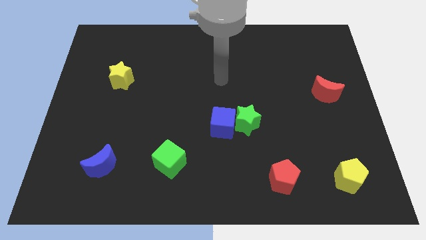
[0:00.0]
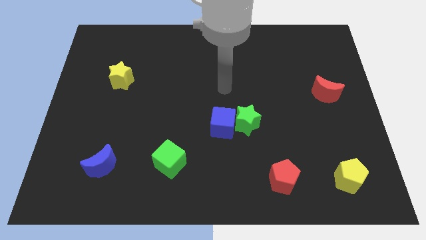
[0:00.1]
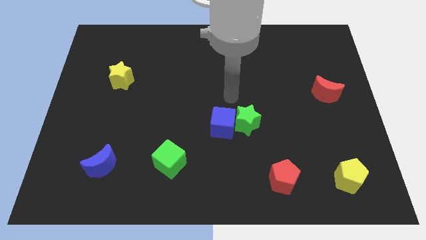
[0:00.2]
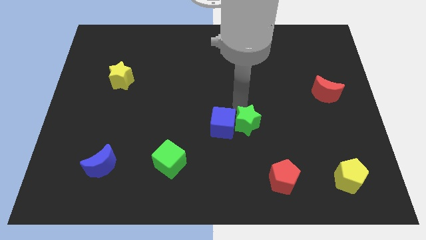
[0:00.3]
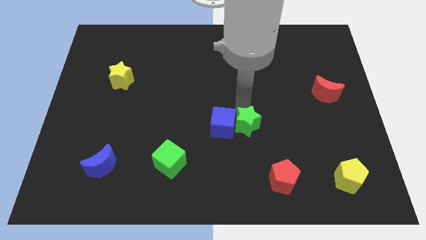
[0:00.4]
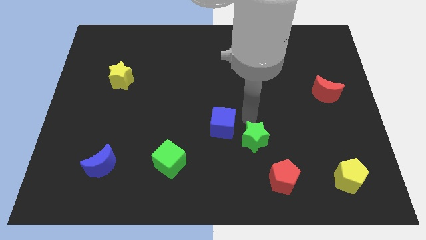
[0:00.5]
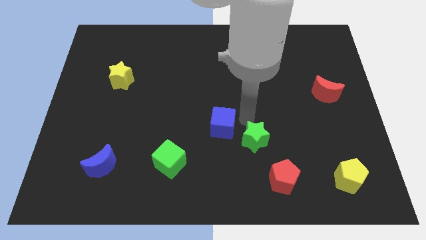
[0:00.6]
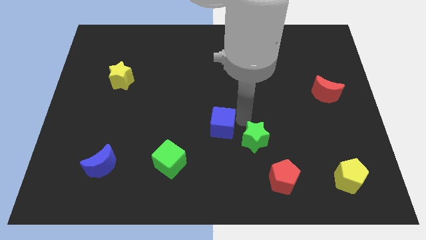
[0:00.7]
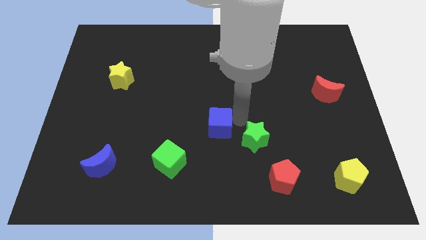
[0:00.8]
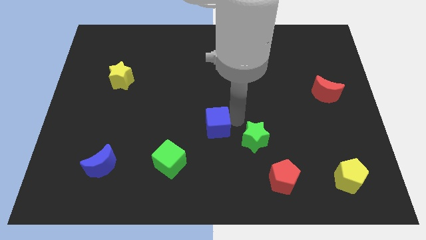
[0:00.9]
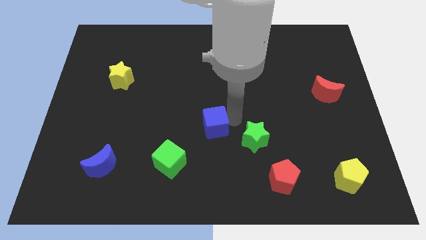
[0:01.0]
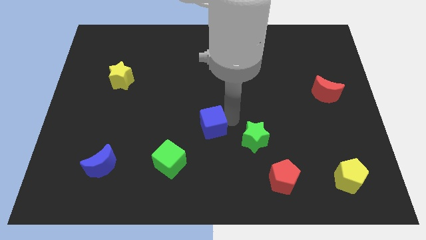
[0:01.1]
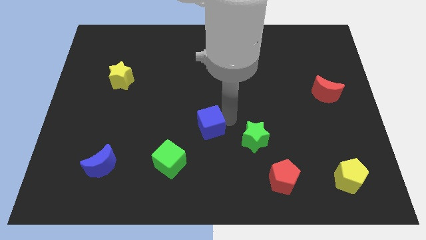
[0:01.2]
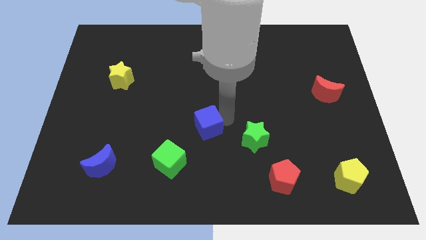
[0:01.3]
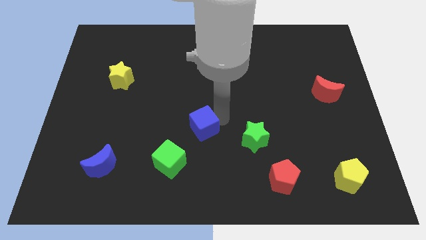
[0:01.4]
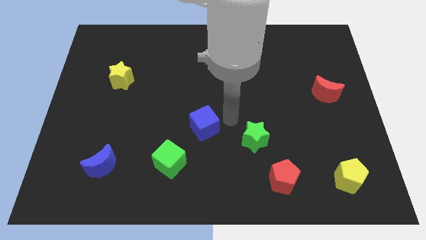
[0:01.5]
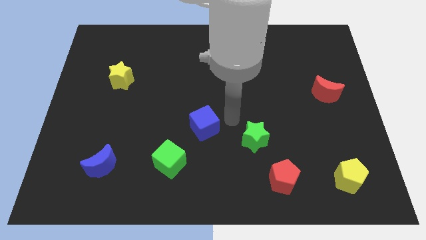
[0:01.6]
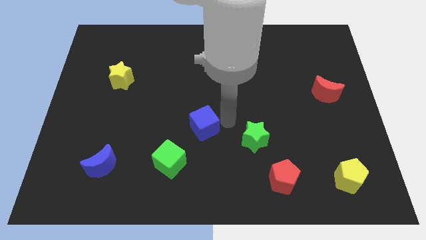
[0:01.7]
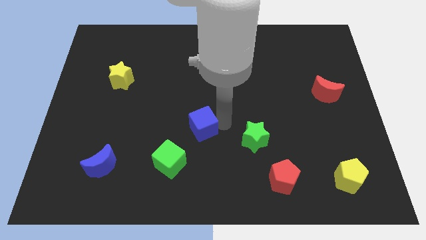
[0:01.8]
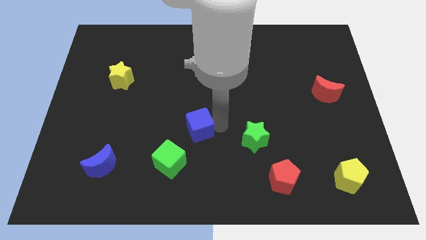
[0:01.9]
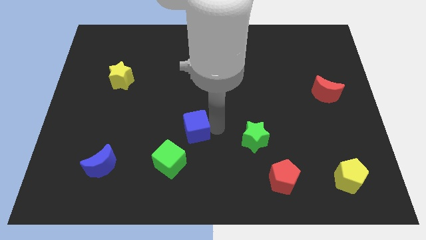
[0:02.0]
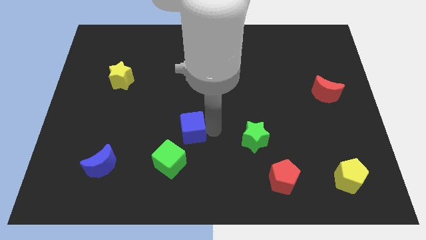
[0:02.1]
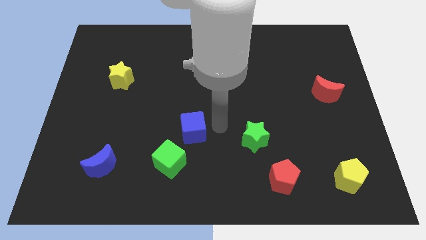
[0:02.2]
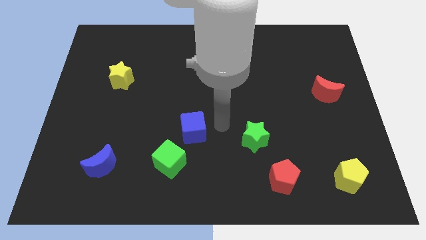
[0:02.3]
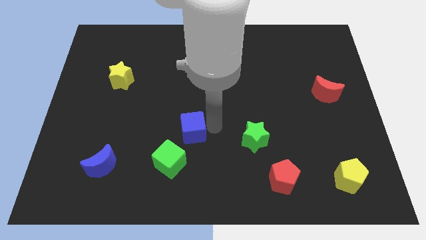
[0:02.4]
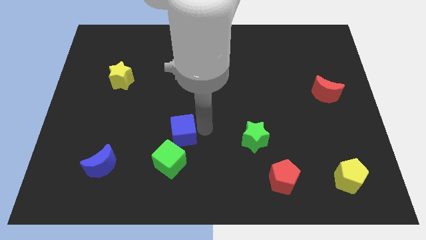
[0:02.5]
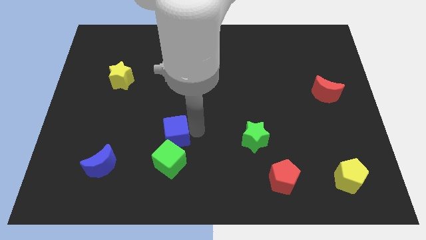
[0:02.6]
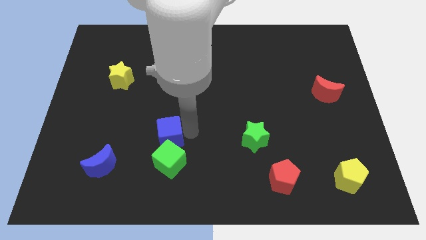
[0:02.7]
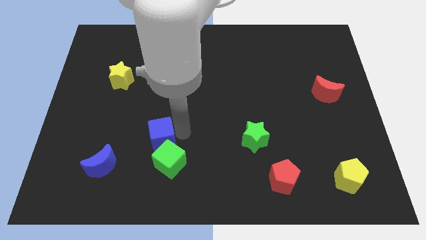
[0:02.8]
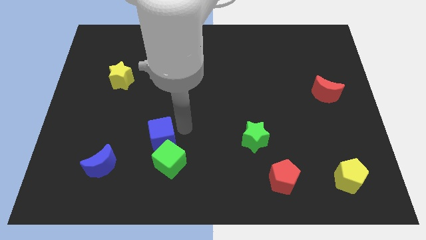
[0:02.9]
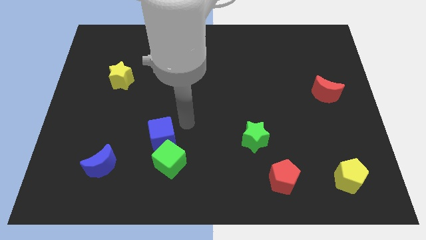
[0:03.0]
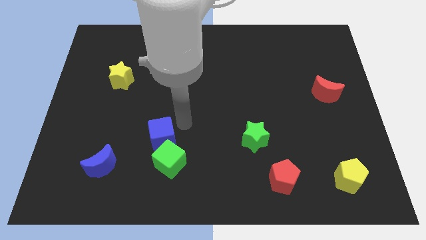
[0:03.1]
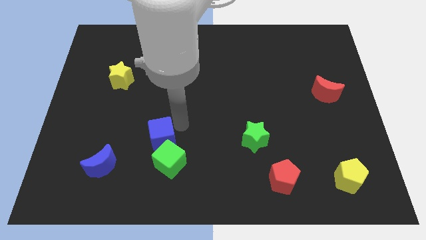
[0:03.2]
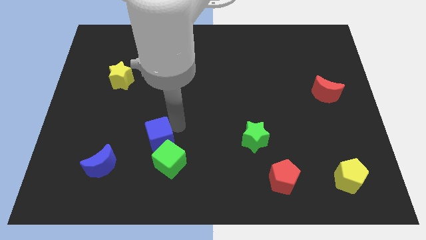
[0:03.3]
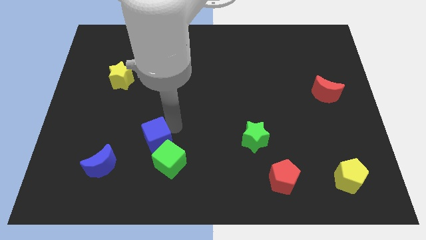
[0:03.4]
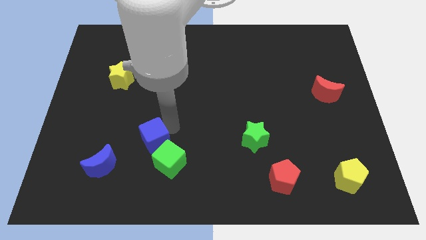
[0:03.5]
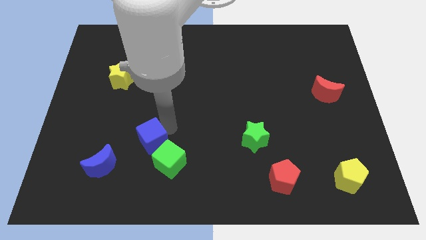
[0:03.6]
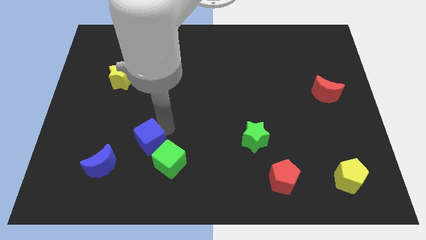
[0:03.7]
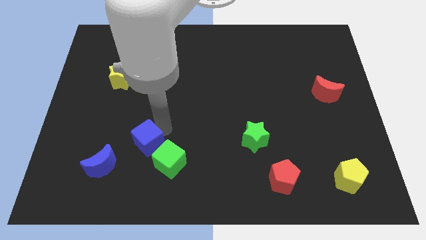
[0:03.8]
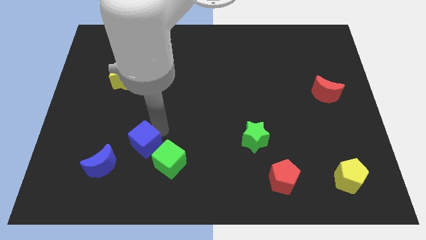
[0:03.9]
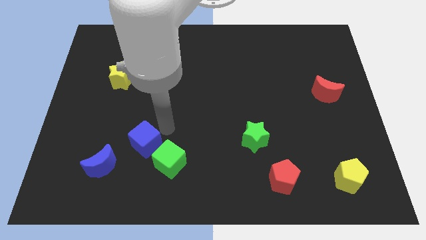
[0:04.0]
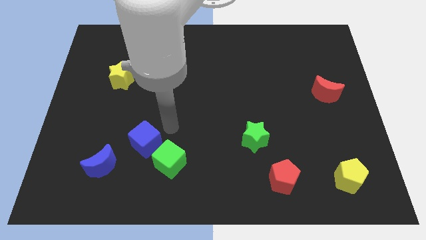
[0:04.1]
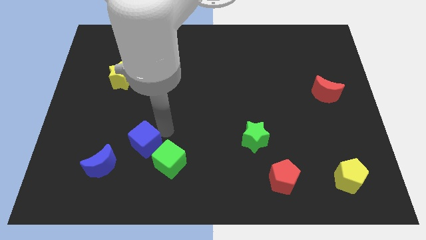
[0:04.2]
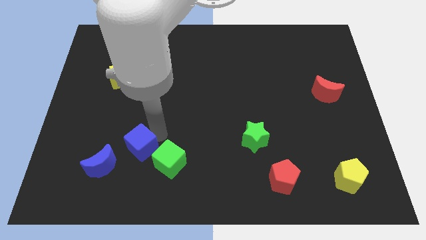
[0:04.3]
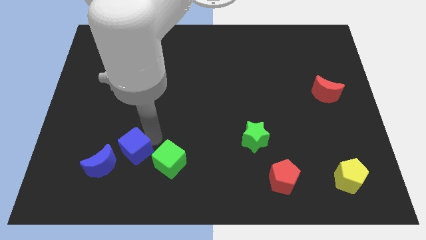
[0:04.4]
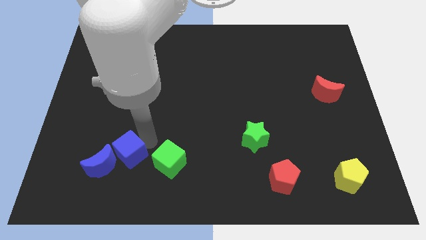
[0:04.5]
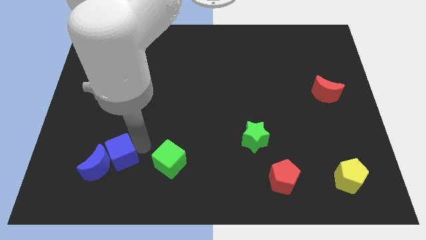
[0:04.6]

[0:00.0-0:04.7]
push the blue cube next to the blue moon

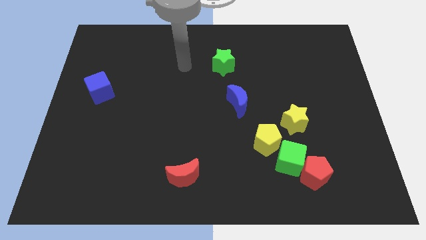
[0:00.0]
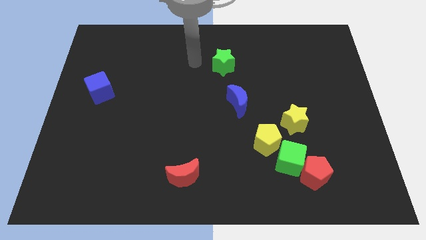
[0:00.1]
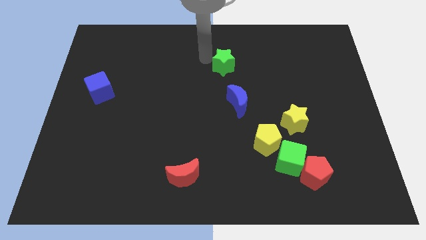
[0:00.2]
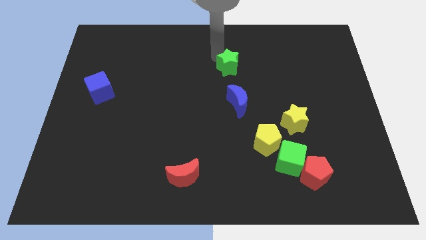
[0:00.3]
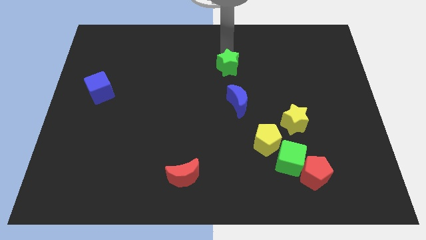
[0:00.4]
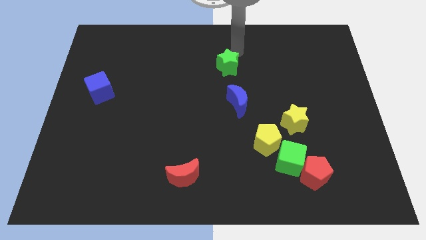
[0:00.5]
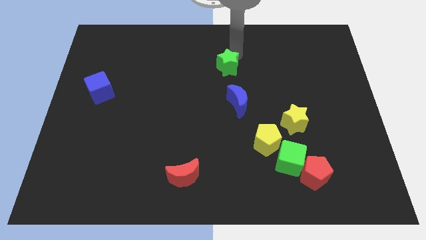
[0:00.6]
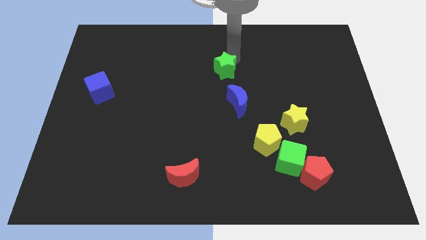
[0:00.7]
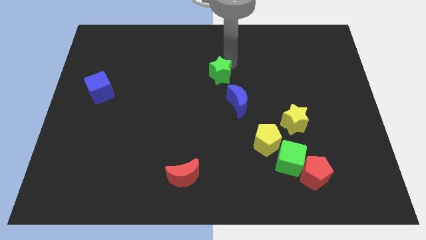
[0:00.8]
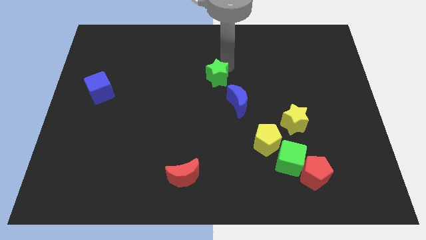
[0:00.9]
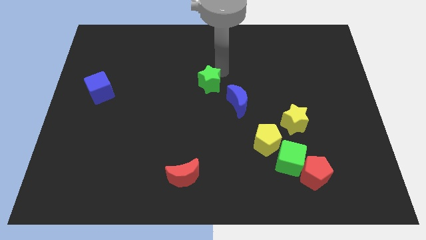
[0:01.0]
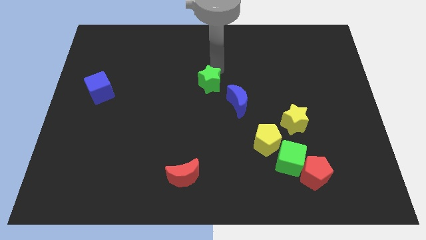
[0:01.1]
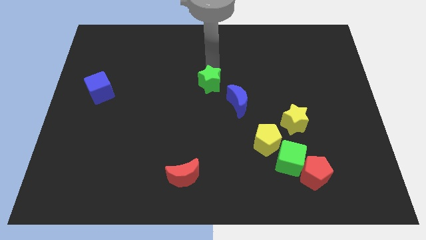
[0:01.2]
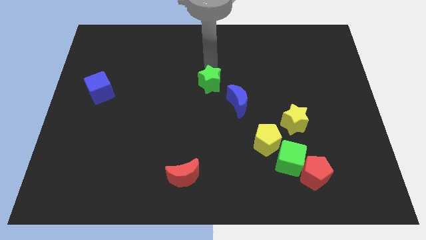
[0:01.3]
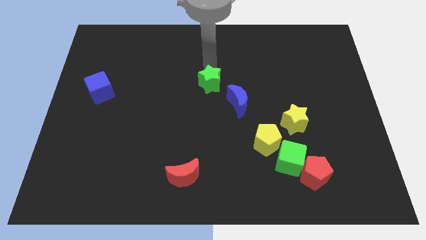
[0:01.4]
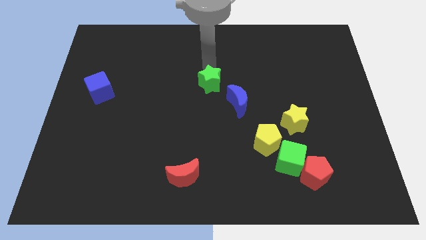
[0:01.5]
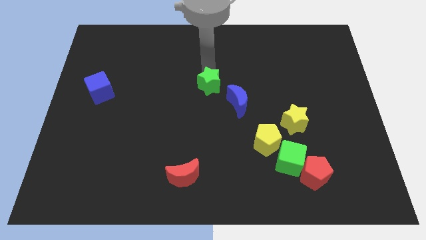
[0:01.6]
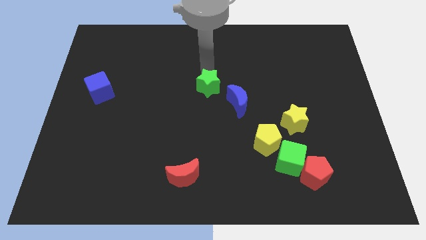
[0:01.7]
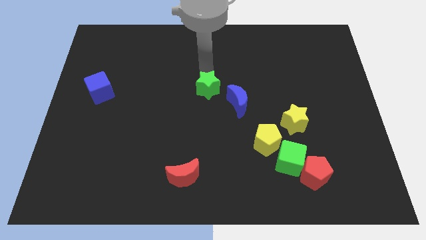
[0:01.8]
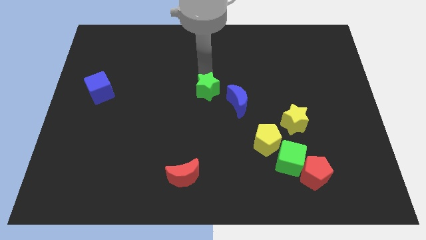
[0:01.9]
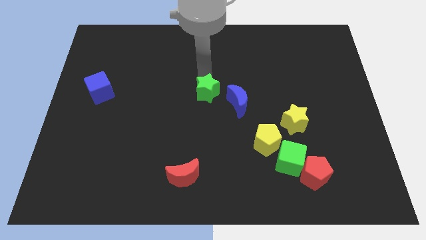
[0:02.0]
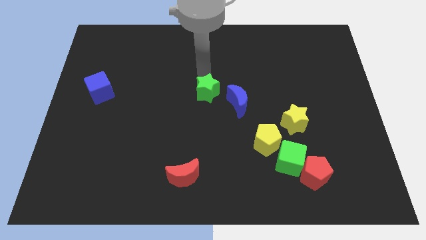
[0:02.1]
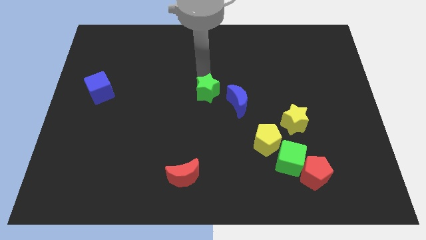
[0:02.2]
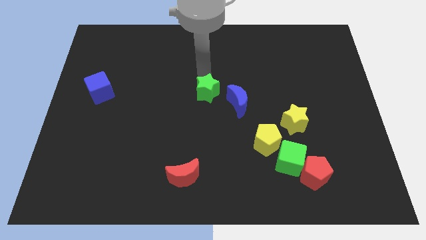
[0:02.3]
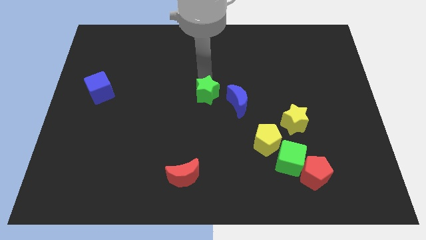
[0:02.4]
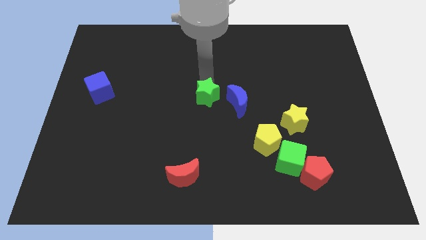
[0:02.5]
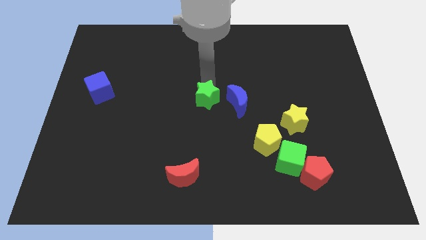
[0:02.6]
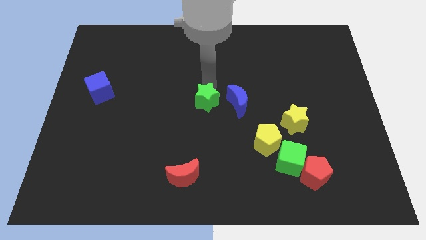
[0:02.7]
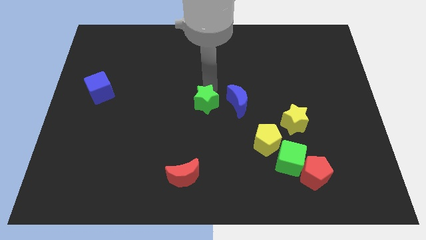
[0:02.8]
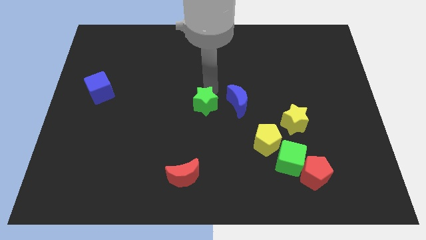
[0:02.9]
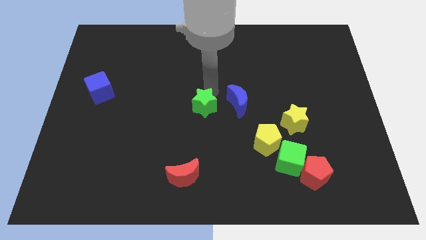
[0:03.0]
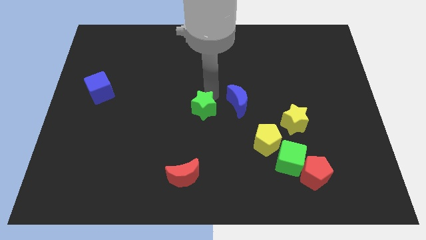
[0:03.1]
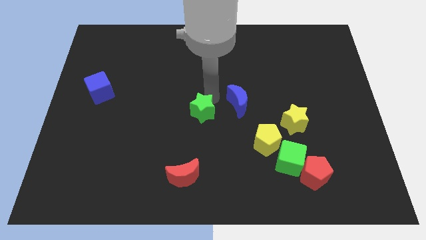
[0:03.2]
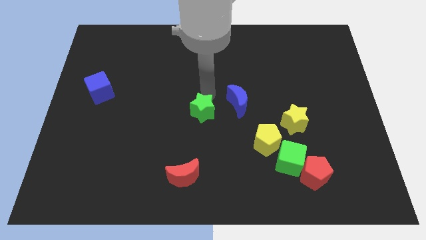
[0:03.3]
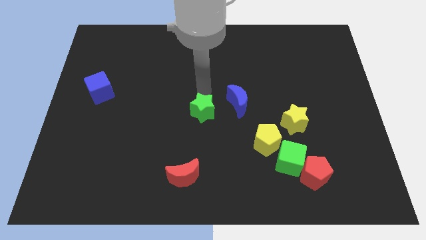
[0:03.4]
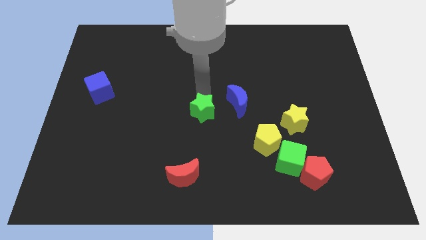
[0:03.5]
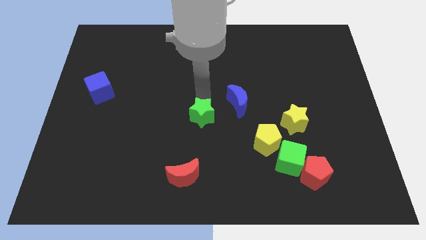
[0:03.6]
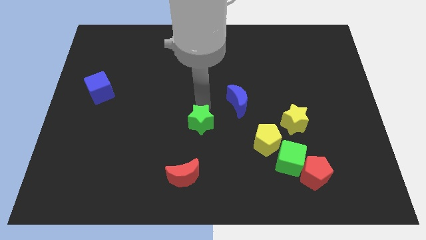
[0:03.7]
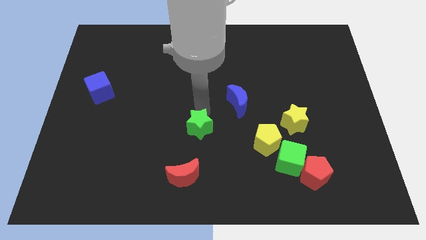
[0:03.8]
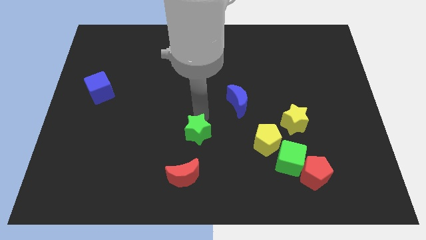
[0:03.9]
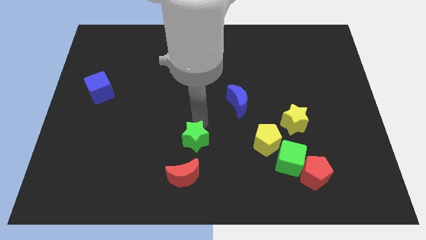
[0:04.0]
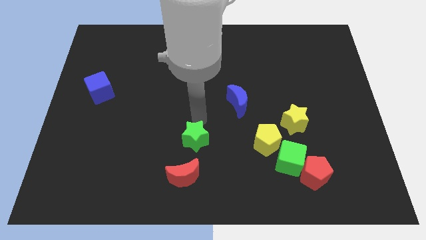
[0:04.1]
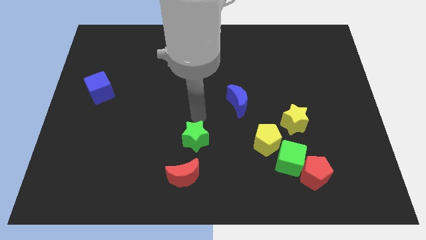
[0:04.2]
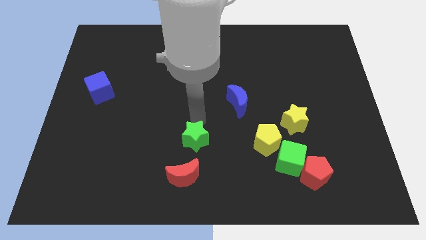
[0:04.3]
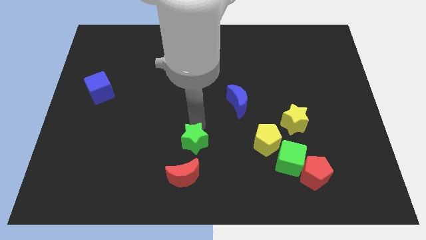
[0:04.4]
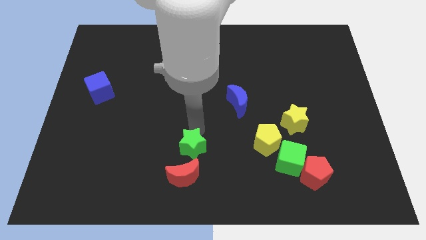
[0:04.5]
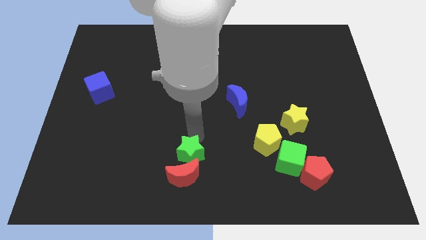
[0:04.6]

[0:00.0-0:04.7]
put the green star next to the red moon
